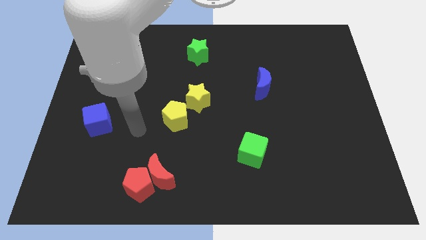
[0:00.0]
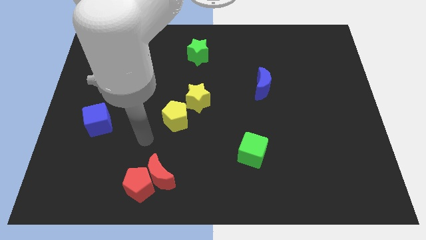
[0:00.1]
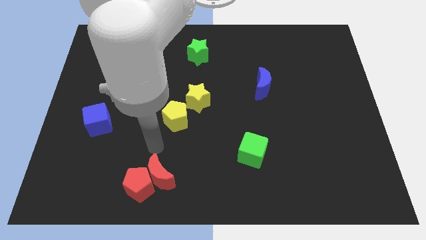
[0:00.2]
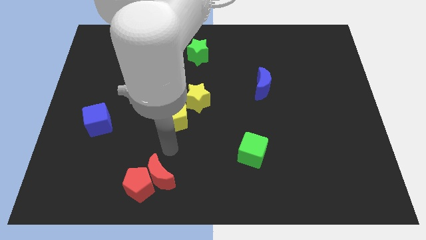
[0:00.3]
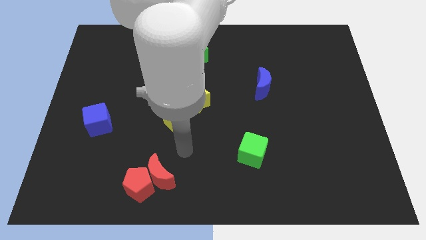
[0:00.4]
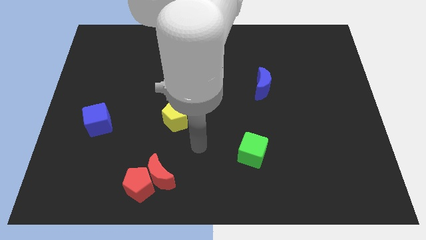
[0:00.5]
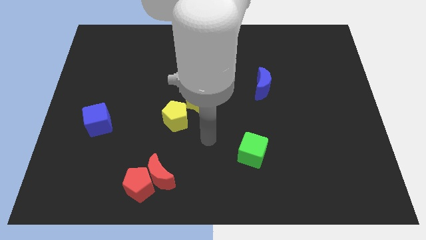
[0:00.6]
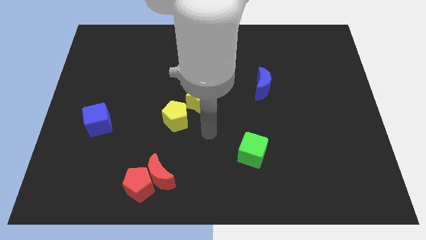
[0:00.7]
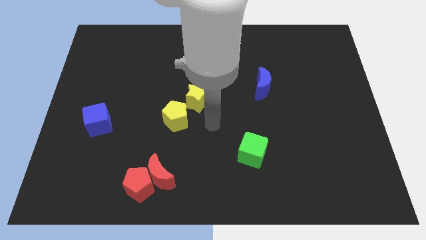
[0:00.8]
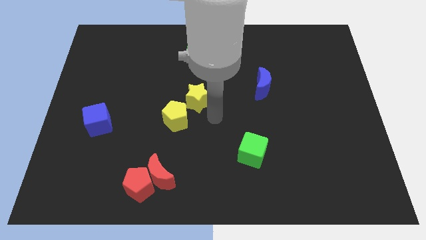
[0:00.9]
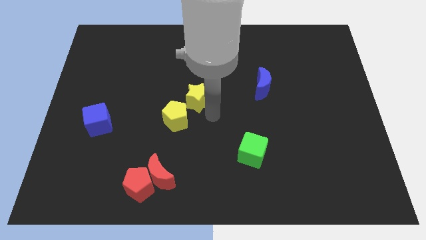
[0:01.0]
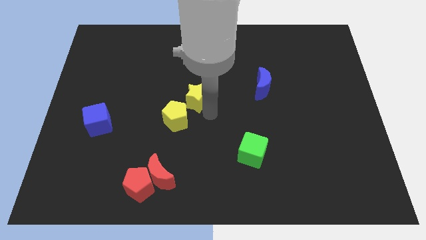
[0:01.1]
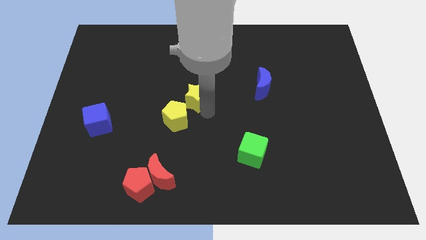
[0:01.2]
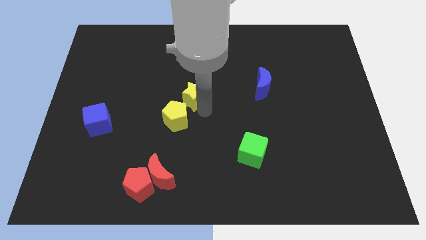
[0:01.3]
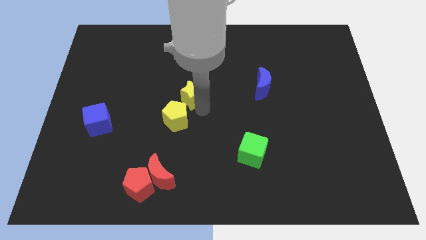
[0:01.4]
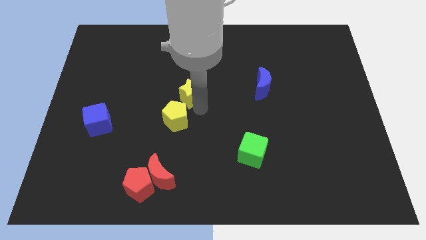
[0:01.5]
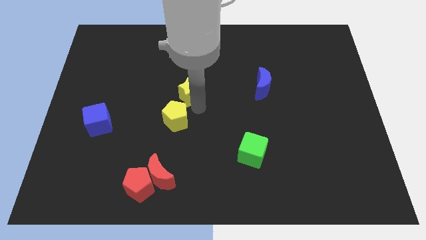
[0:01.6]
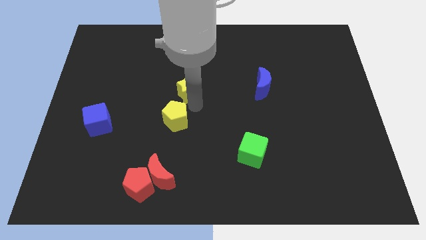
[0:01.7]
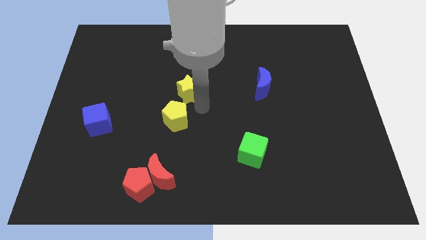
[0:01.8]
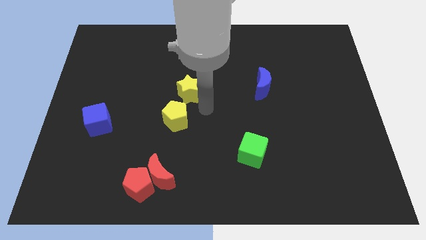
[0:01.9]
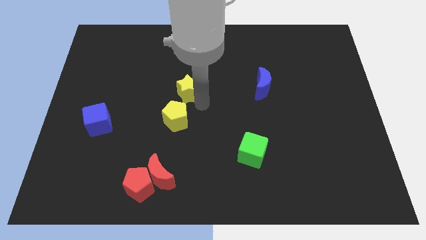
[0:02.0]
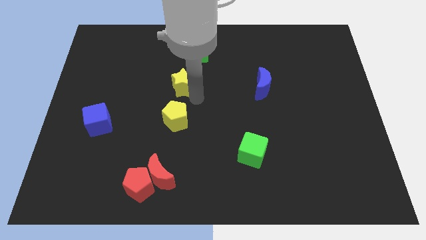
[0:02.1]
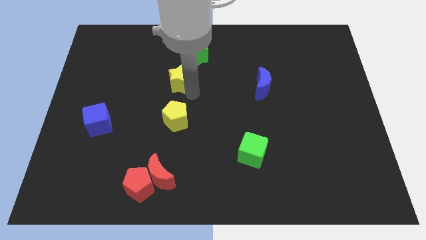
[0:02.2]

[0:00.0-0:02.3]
move the yellow star slightly upwards and left diagonally

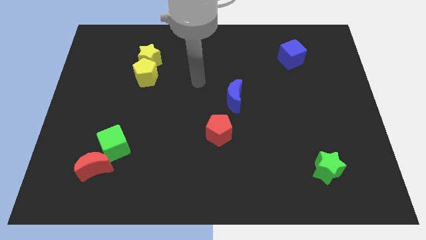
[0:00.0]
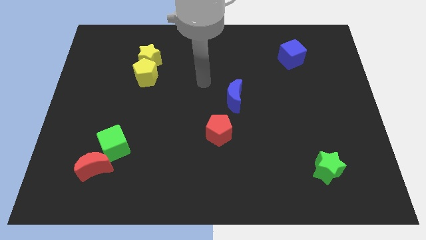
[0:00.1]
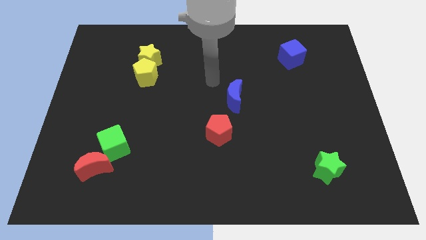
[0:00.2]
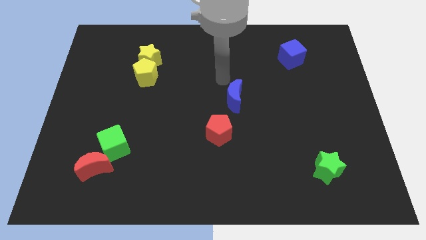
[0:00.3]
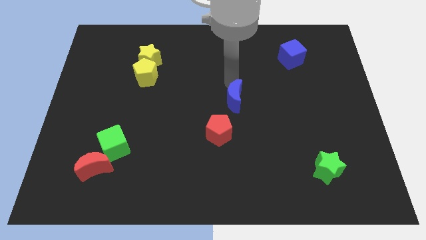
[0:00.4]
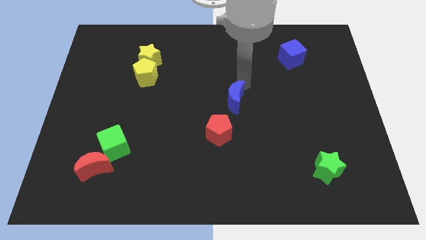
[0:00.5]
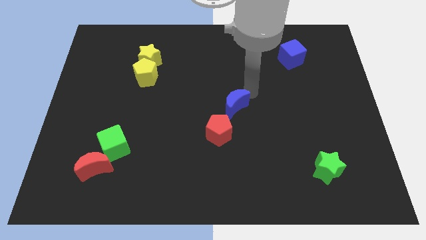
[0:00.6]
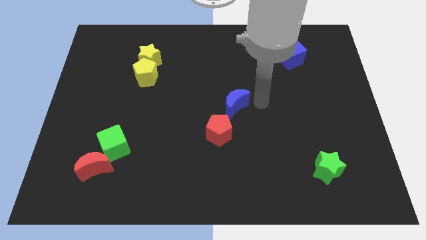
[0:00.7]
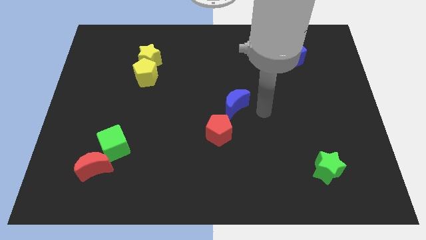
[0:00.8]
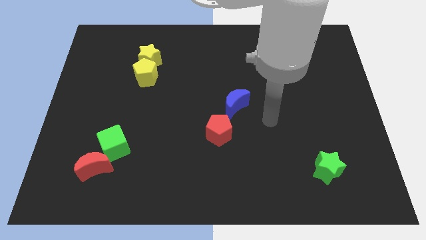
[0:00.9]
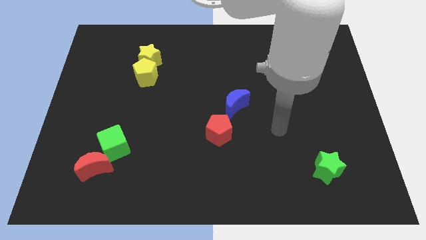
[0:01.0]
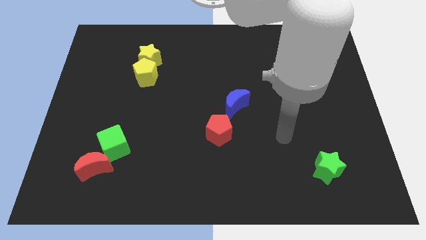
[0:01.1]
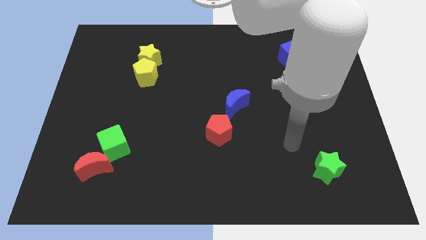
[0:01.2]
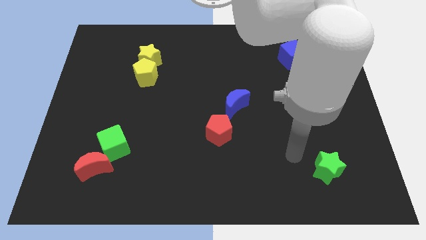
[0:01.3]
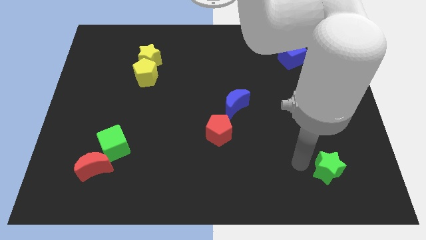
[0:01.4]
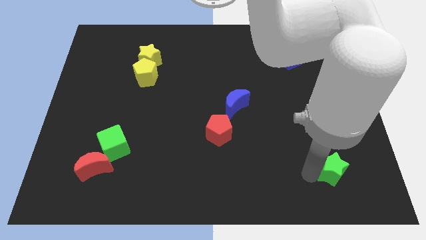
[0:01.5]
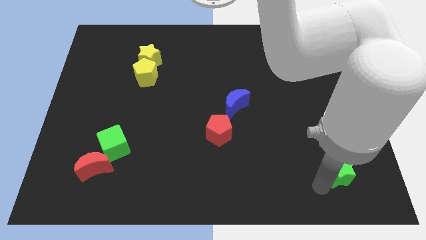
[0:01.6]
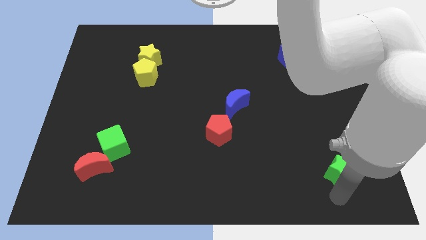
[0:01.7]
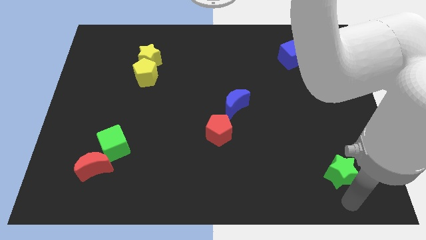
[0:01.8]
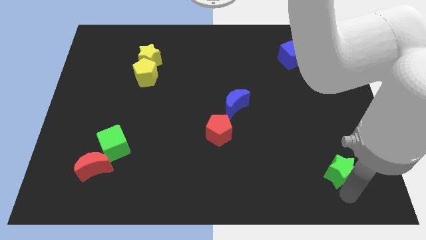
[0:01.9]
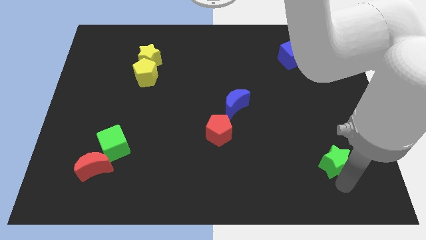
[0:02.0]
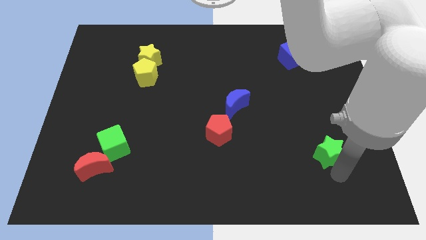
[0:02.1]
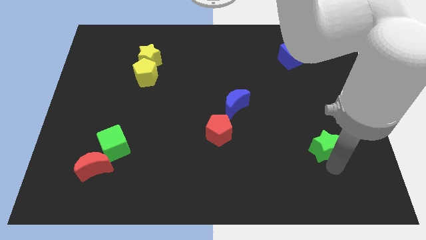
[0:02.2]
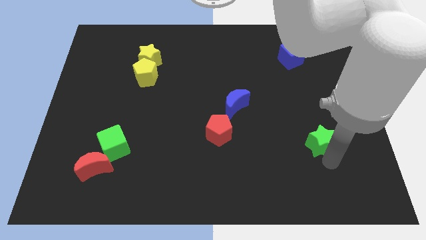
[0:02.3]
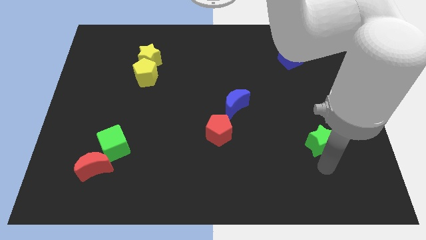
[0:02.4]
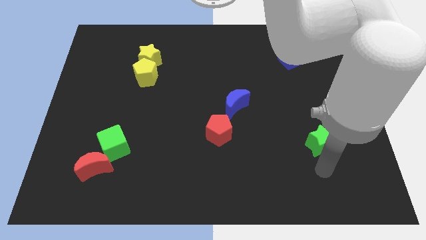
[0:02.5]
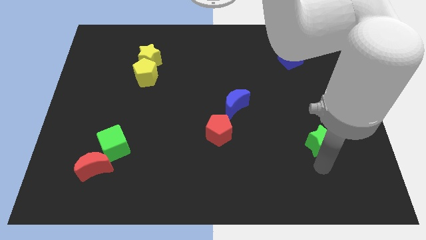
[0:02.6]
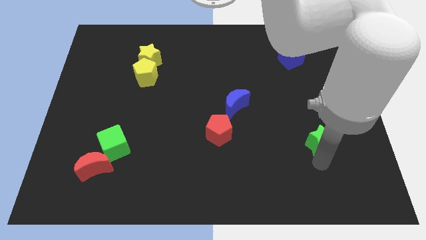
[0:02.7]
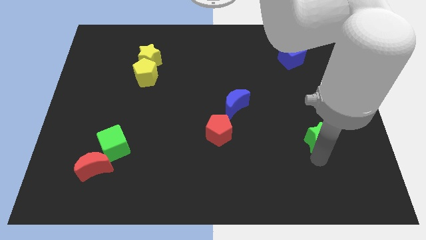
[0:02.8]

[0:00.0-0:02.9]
move the green star slightly upwards

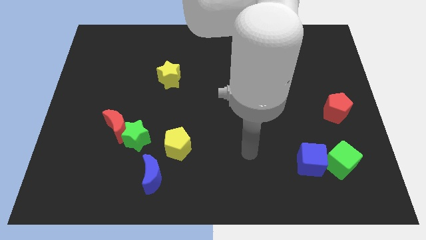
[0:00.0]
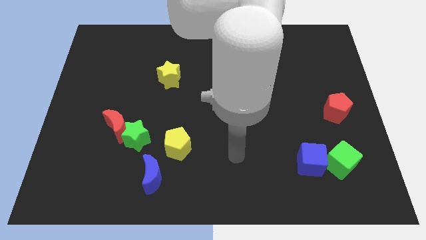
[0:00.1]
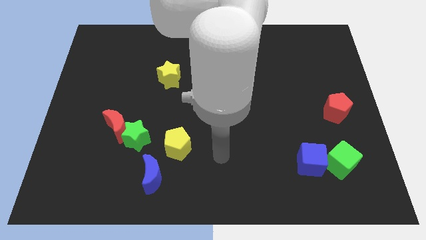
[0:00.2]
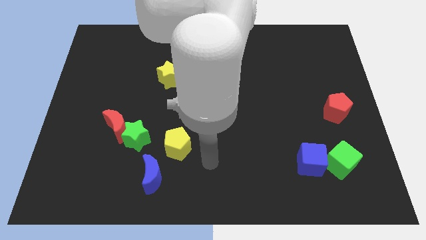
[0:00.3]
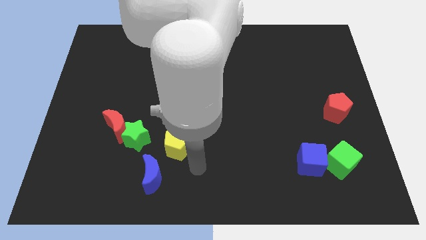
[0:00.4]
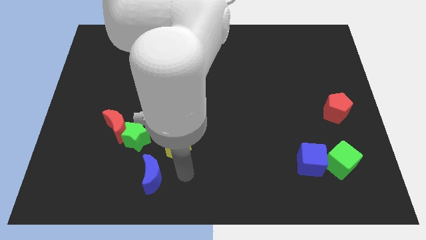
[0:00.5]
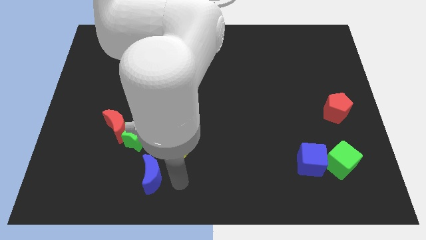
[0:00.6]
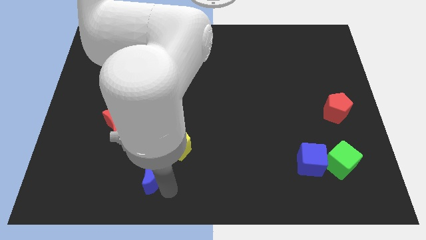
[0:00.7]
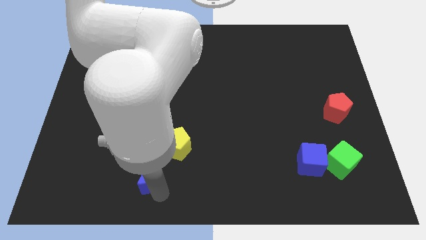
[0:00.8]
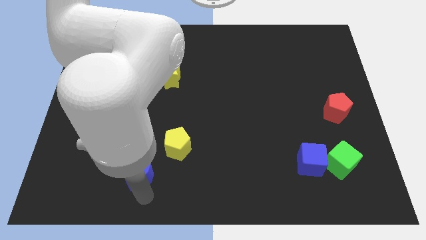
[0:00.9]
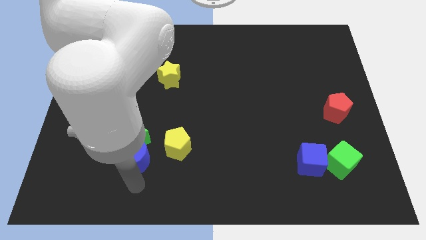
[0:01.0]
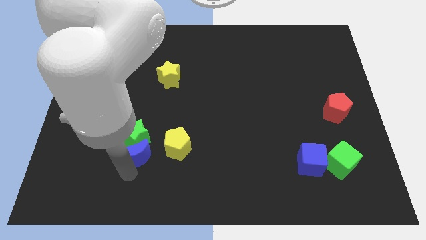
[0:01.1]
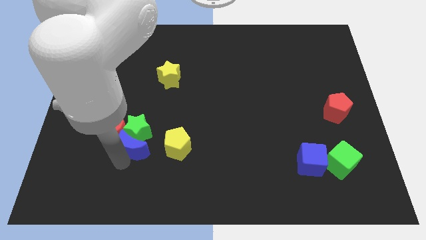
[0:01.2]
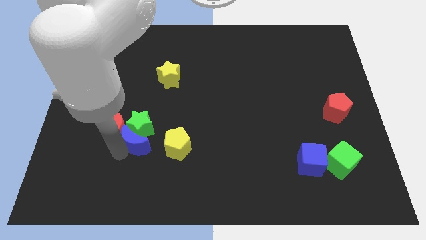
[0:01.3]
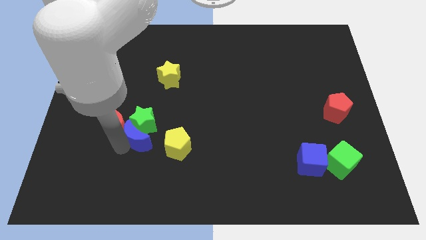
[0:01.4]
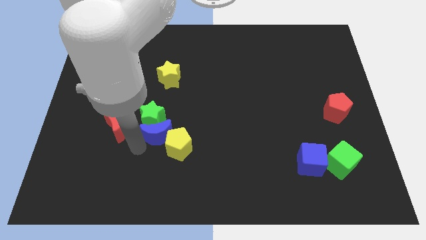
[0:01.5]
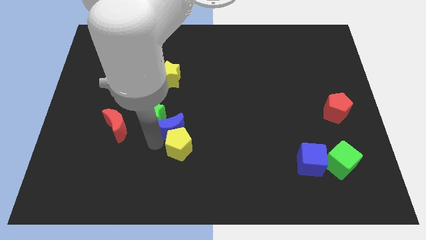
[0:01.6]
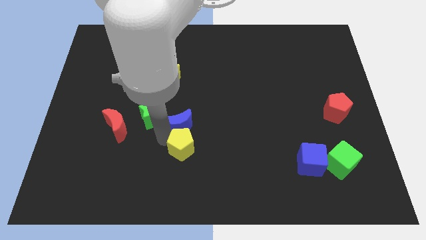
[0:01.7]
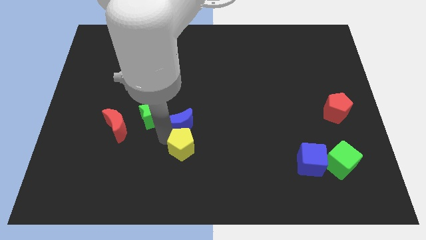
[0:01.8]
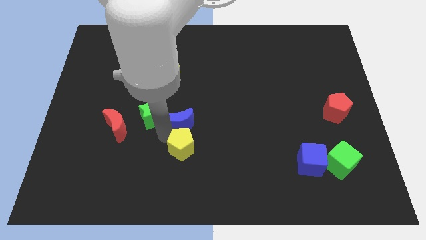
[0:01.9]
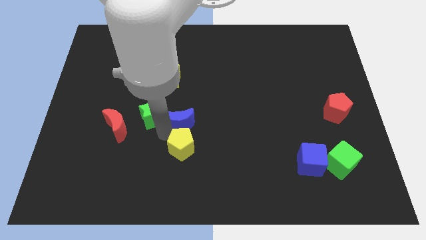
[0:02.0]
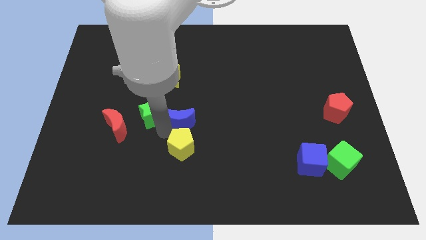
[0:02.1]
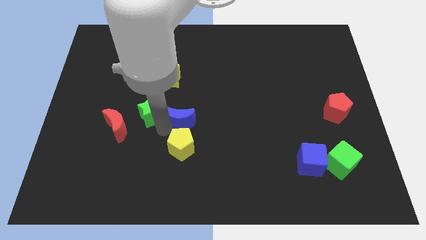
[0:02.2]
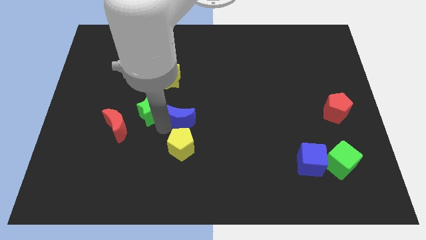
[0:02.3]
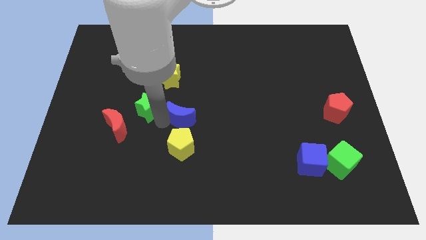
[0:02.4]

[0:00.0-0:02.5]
push the green star up somewhat

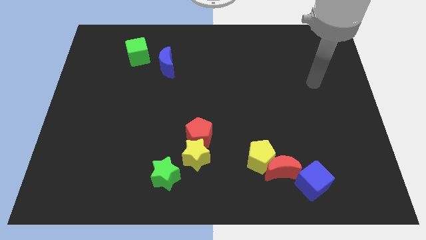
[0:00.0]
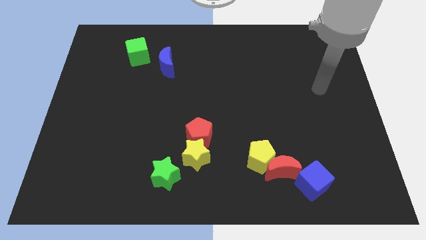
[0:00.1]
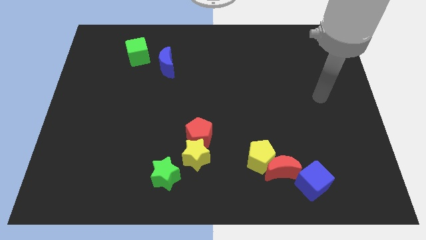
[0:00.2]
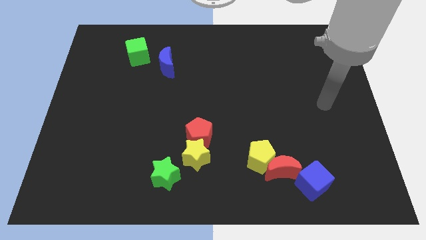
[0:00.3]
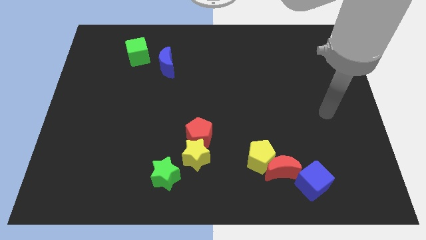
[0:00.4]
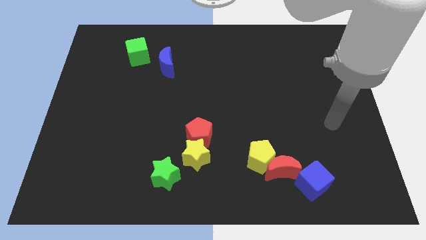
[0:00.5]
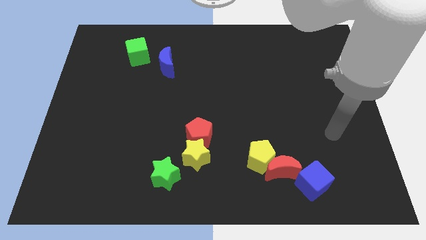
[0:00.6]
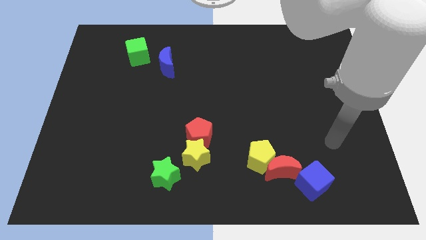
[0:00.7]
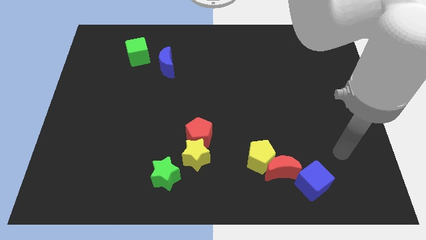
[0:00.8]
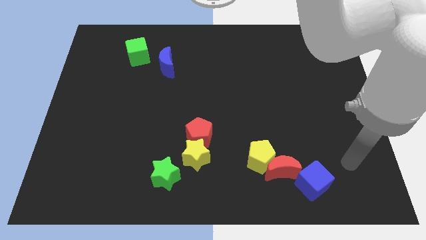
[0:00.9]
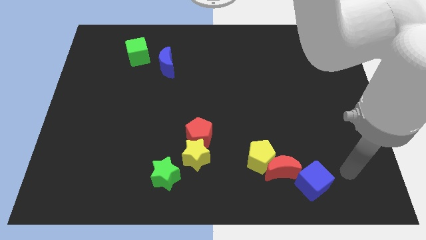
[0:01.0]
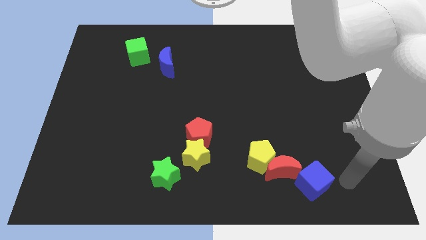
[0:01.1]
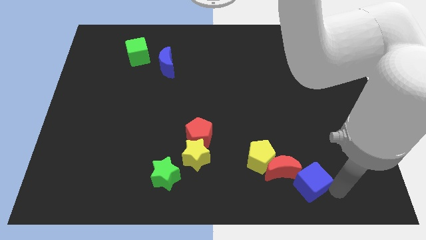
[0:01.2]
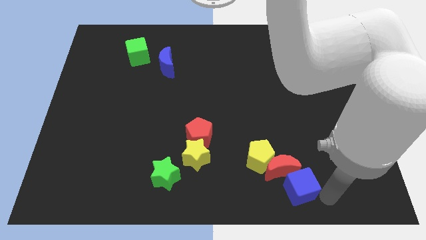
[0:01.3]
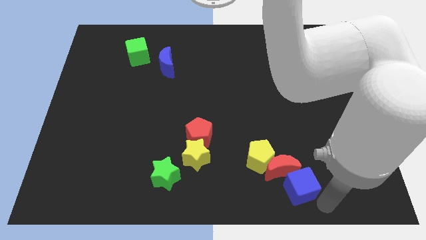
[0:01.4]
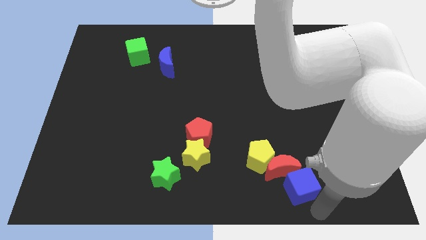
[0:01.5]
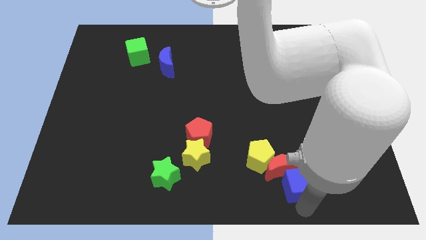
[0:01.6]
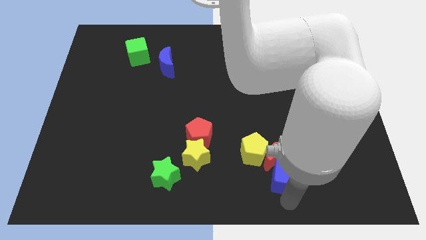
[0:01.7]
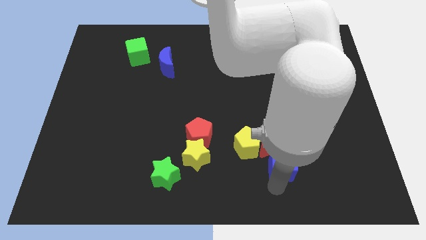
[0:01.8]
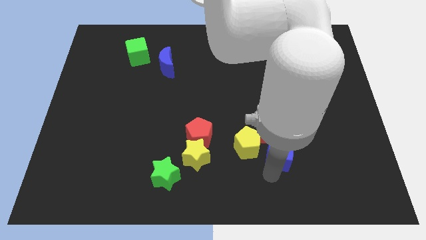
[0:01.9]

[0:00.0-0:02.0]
slightly push the red moon upwards
